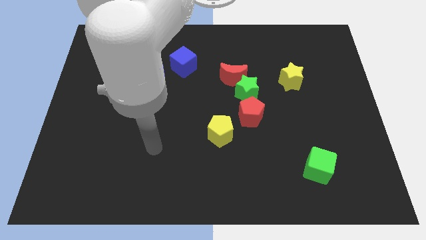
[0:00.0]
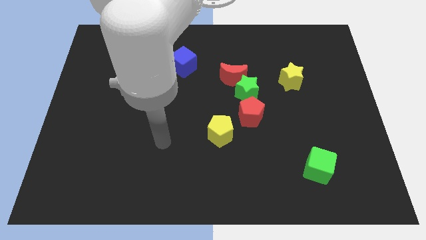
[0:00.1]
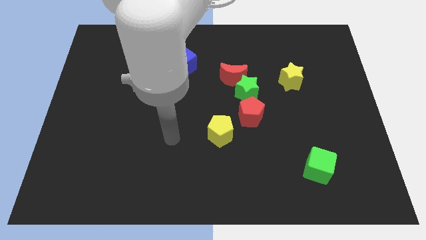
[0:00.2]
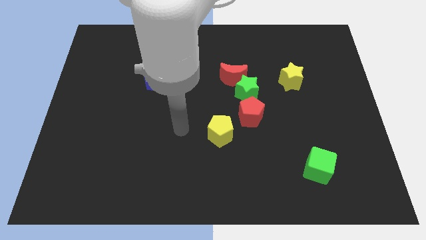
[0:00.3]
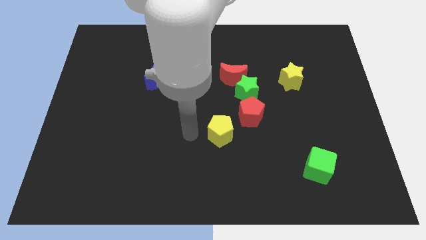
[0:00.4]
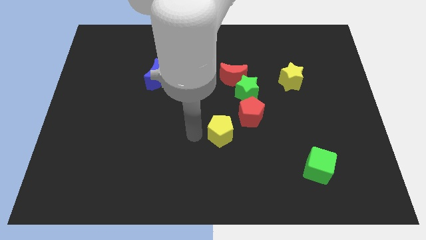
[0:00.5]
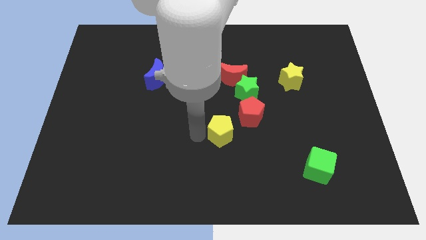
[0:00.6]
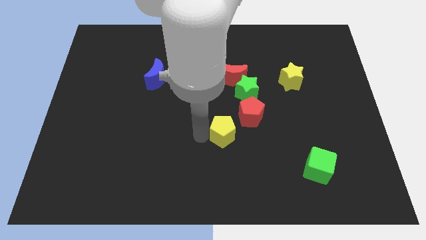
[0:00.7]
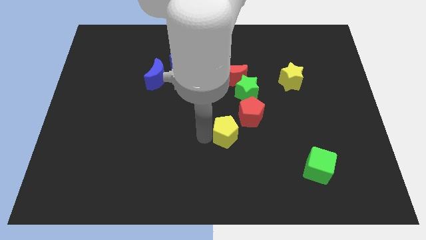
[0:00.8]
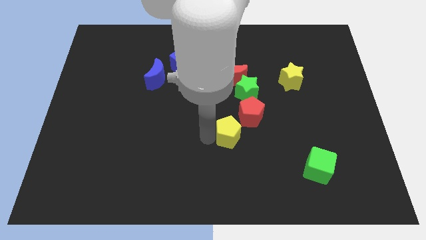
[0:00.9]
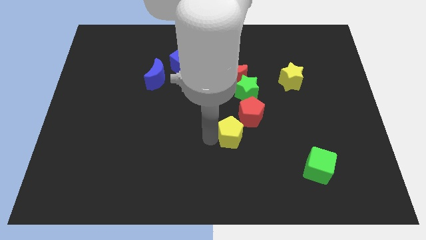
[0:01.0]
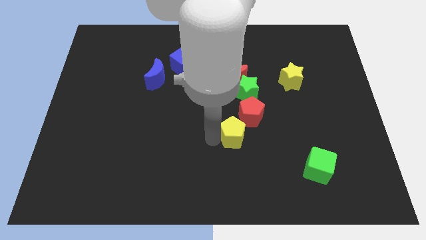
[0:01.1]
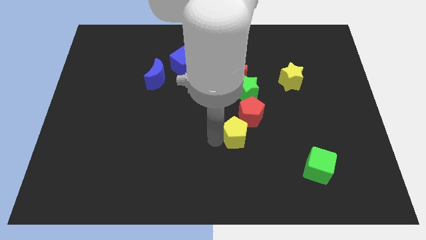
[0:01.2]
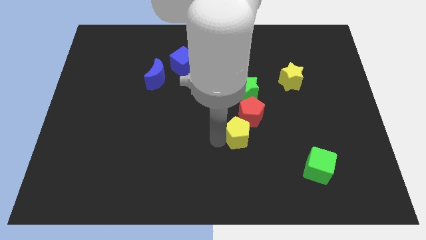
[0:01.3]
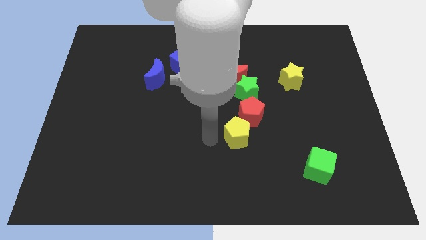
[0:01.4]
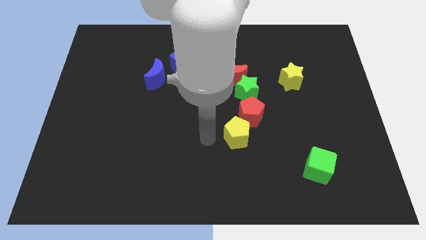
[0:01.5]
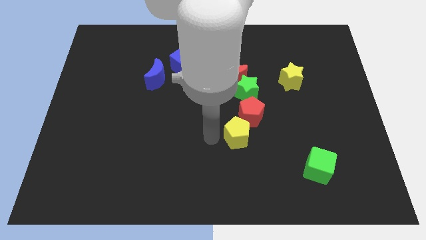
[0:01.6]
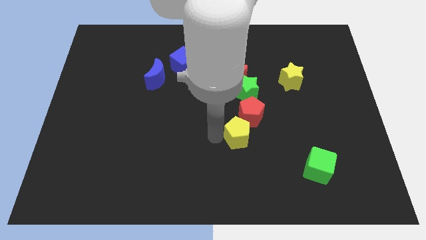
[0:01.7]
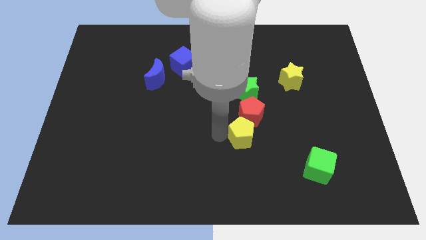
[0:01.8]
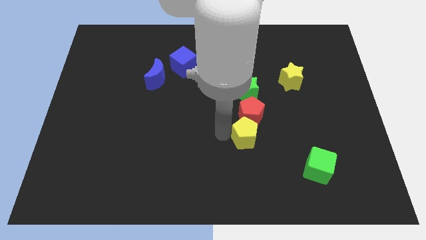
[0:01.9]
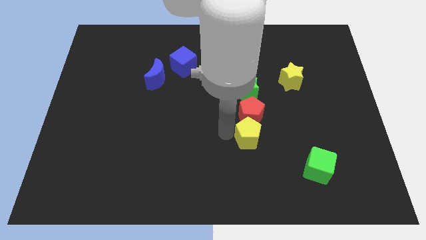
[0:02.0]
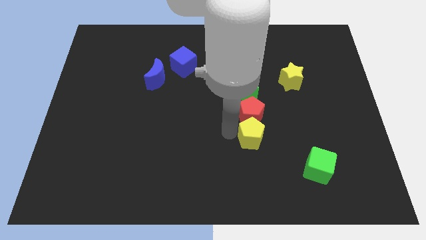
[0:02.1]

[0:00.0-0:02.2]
slightly push the yellow pentagon to the right

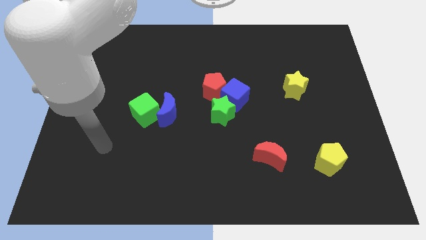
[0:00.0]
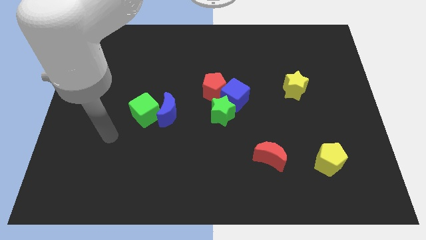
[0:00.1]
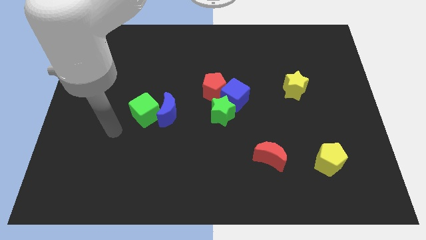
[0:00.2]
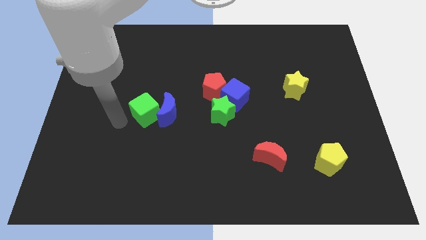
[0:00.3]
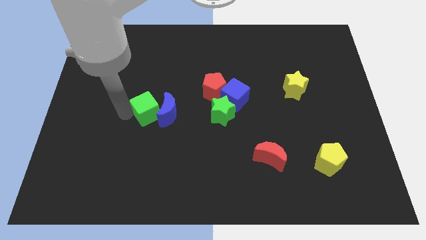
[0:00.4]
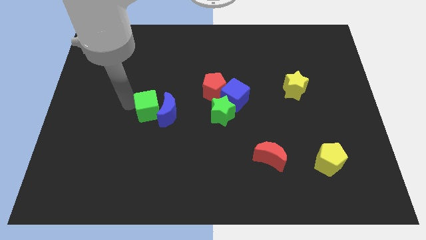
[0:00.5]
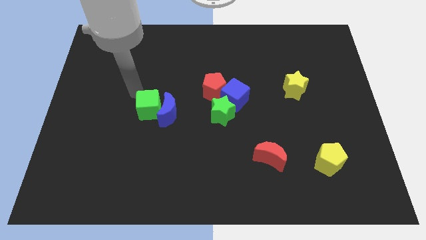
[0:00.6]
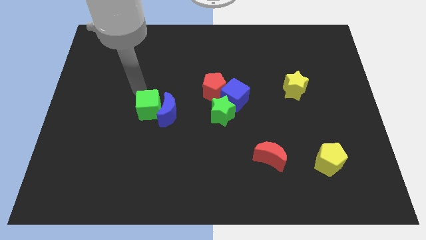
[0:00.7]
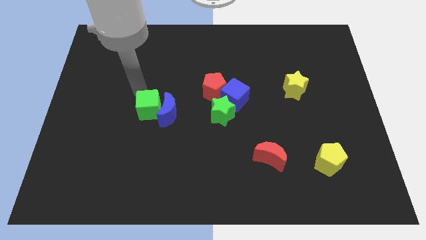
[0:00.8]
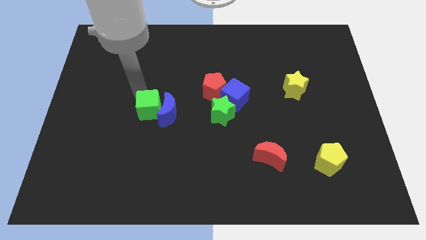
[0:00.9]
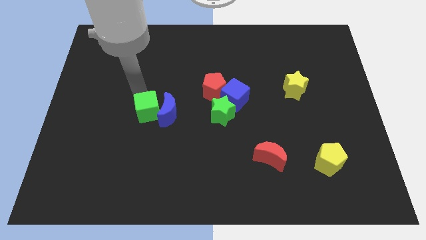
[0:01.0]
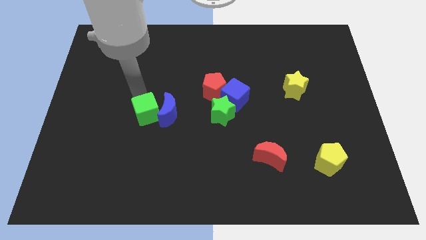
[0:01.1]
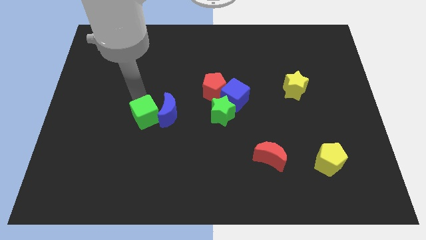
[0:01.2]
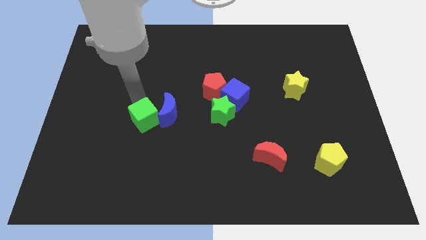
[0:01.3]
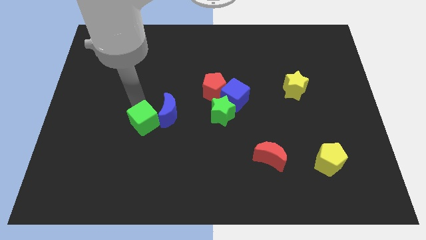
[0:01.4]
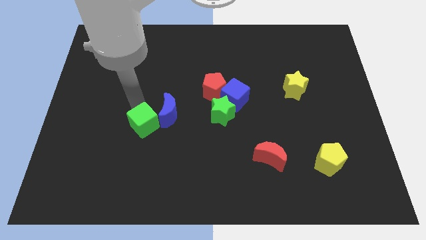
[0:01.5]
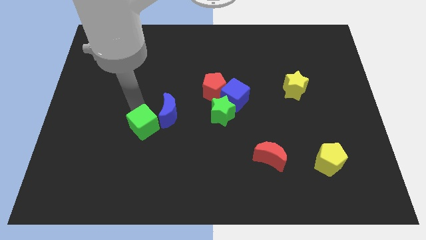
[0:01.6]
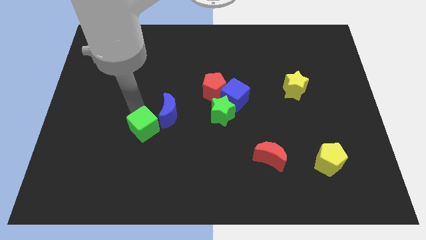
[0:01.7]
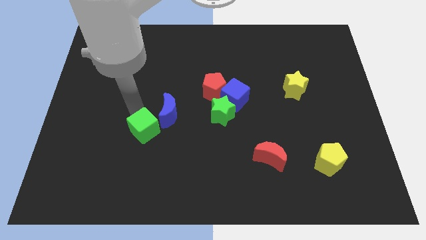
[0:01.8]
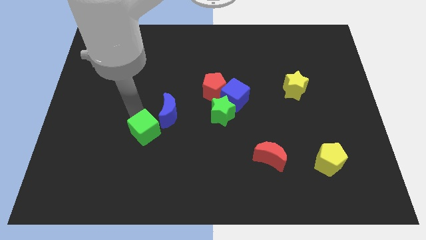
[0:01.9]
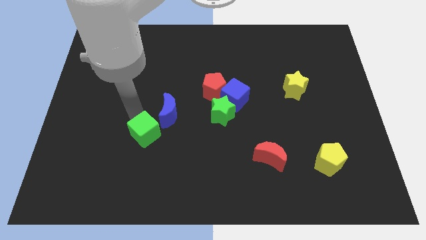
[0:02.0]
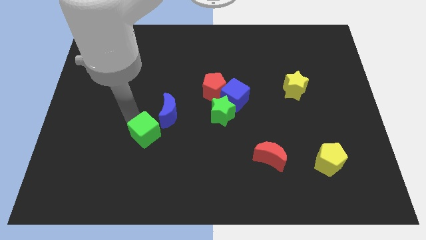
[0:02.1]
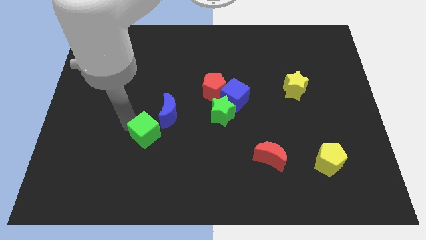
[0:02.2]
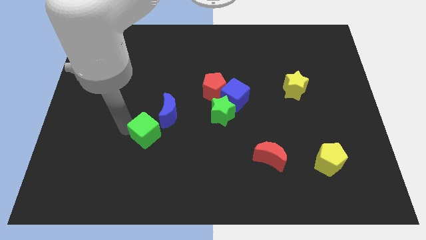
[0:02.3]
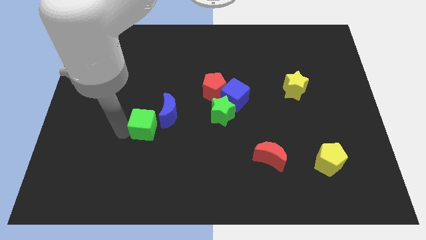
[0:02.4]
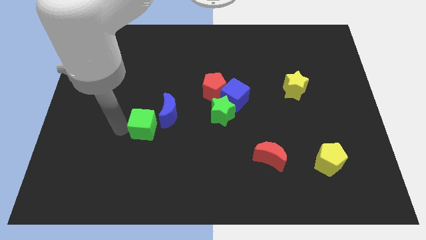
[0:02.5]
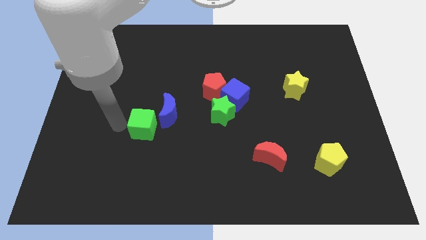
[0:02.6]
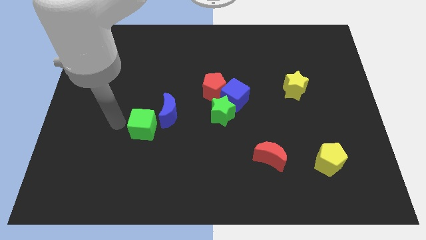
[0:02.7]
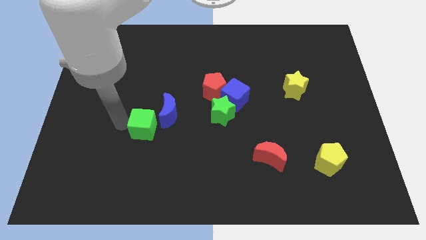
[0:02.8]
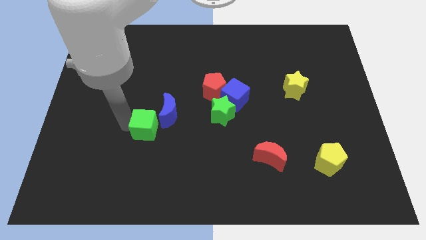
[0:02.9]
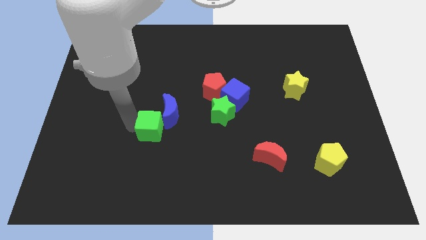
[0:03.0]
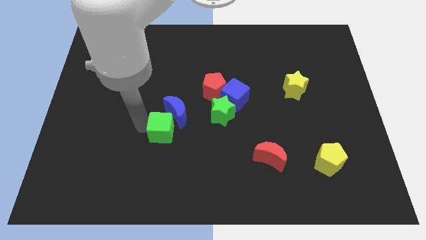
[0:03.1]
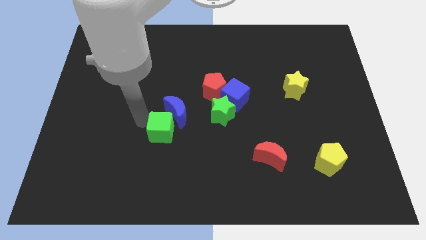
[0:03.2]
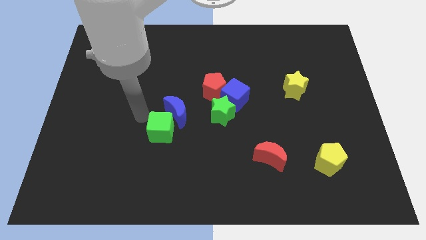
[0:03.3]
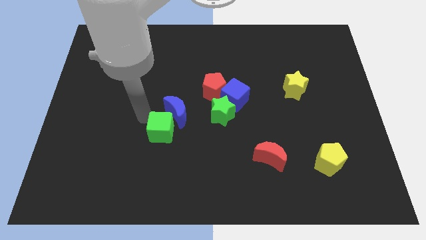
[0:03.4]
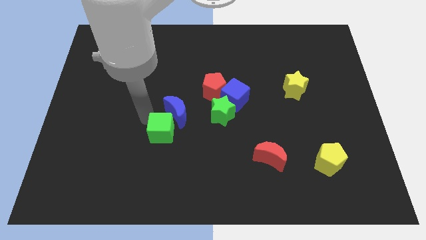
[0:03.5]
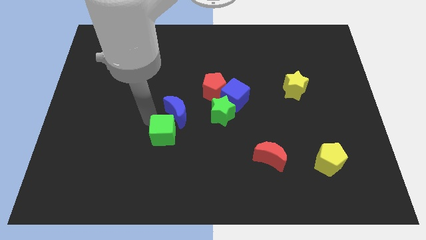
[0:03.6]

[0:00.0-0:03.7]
slightly move the green cube downwards and then to the right

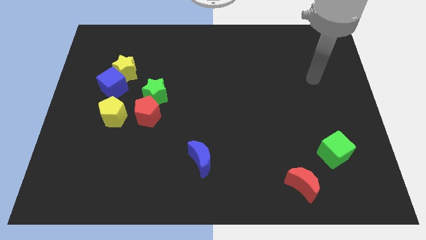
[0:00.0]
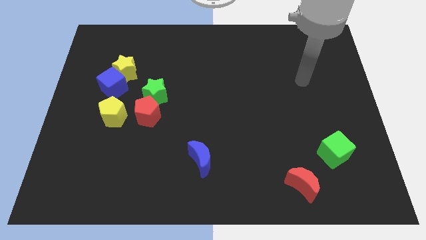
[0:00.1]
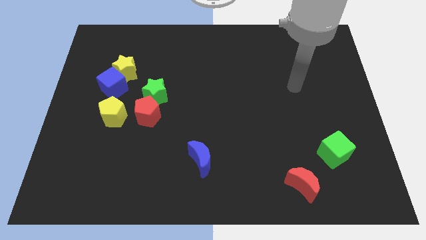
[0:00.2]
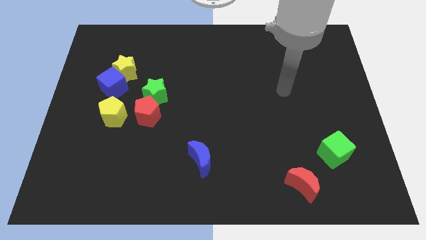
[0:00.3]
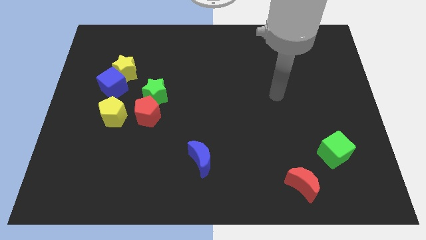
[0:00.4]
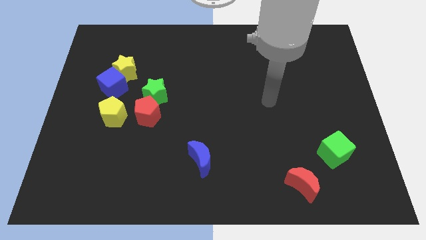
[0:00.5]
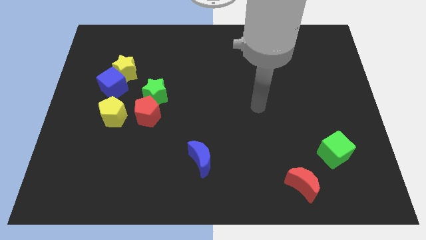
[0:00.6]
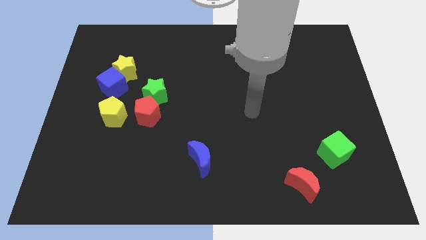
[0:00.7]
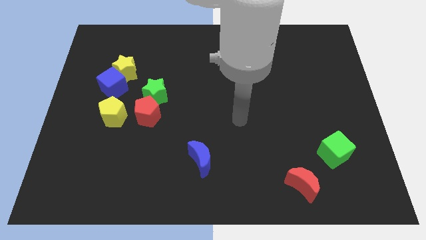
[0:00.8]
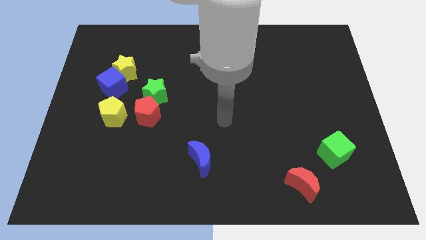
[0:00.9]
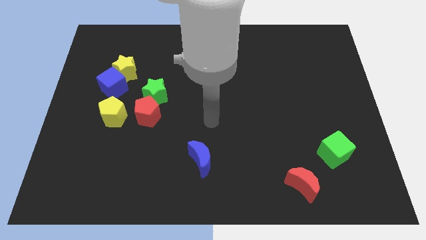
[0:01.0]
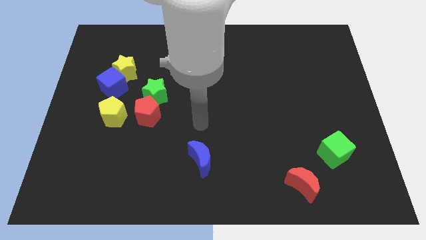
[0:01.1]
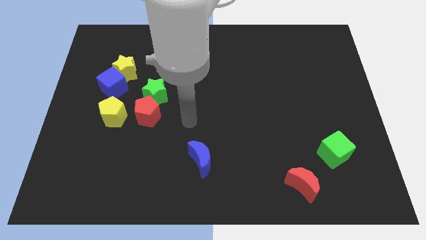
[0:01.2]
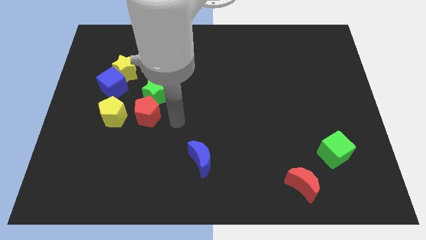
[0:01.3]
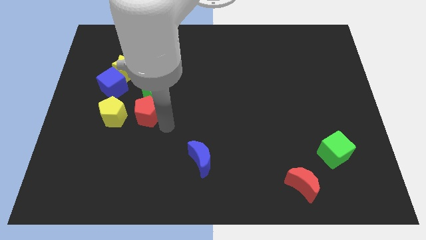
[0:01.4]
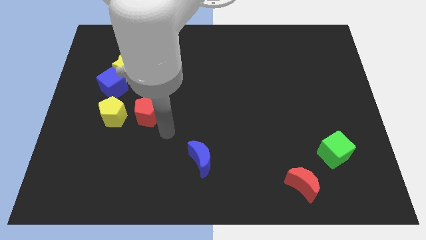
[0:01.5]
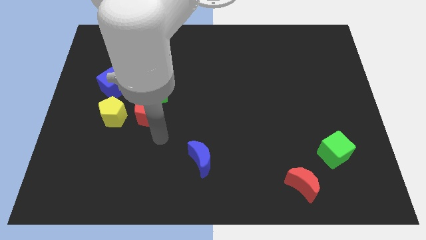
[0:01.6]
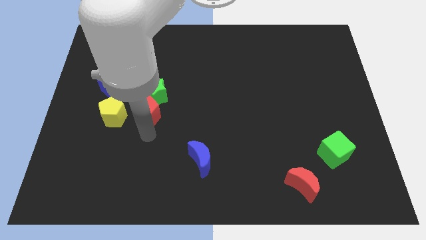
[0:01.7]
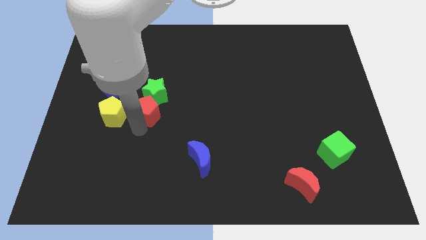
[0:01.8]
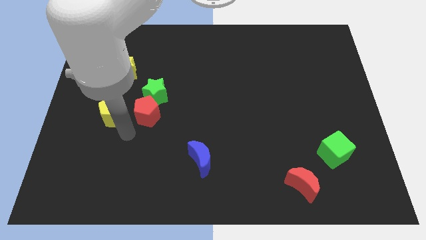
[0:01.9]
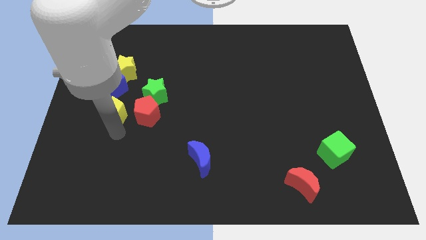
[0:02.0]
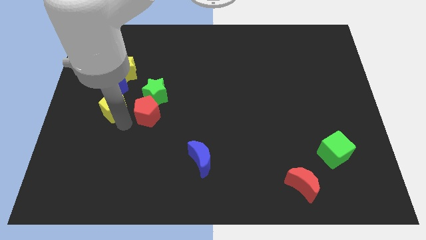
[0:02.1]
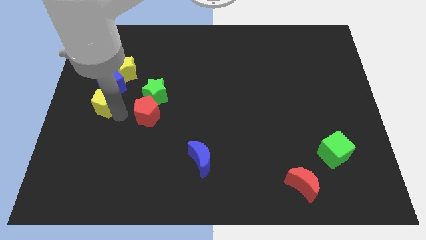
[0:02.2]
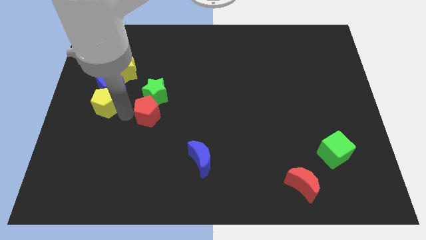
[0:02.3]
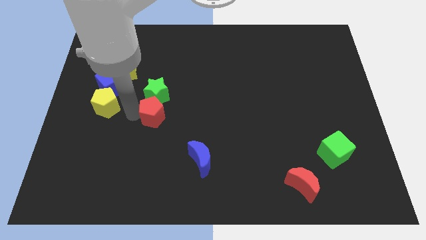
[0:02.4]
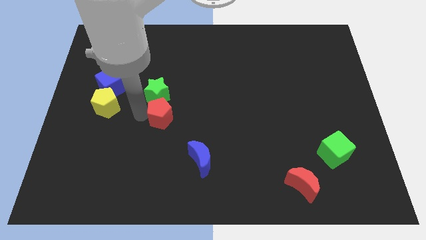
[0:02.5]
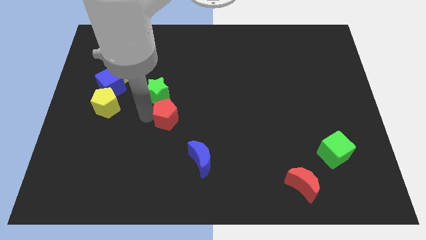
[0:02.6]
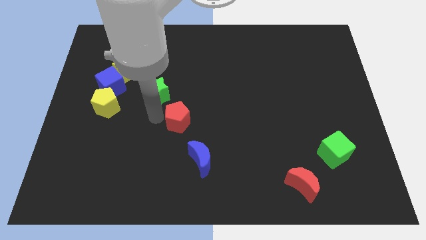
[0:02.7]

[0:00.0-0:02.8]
push the red pentagon to the right a little
